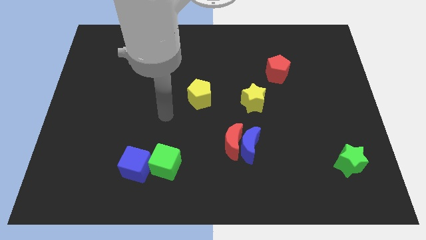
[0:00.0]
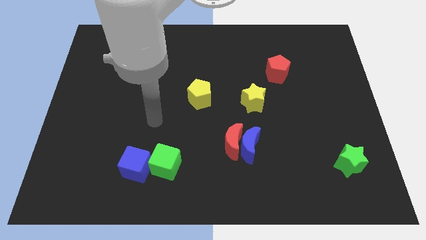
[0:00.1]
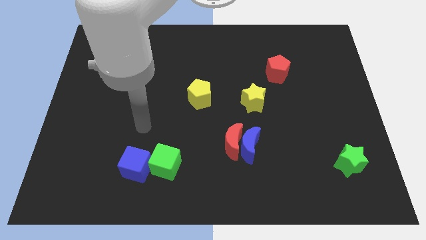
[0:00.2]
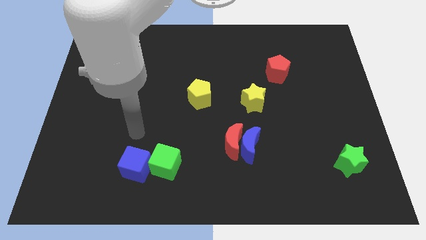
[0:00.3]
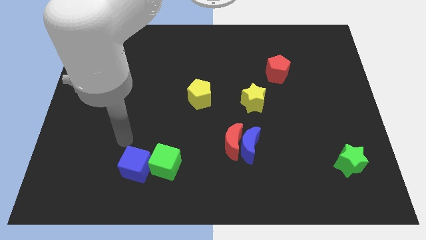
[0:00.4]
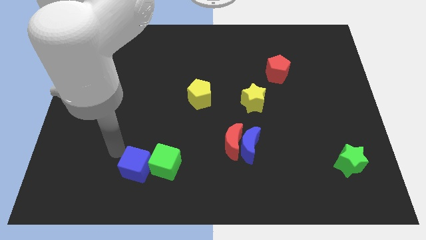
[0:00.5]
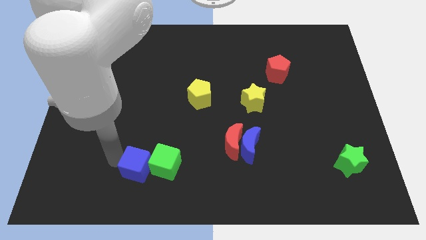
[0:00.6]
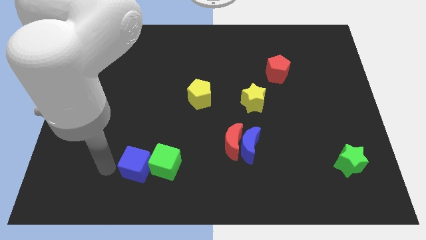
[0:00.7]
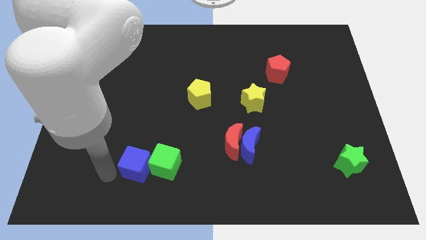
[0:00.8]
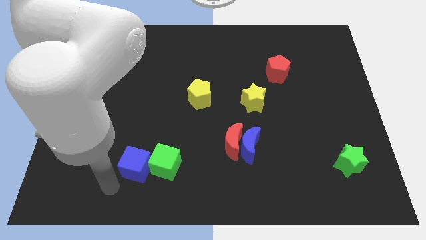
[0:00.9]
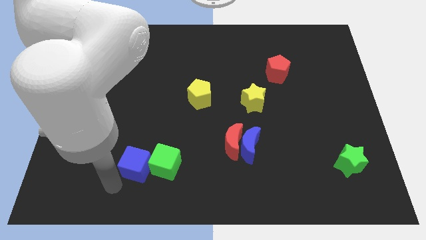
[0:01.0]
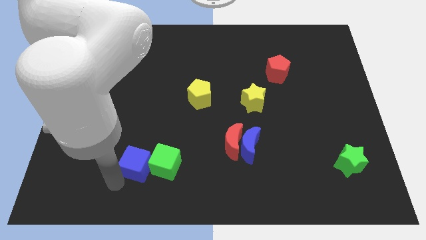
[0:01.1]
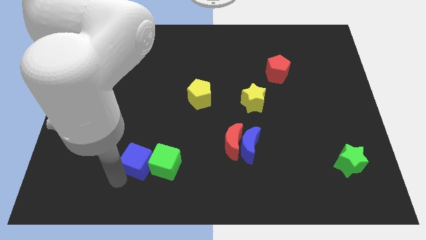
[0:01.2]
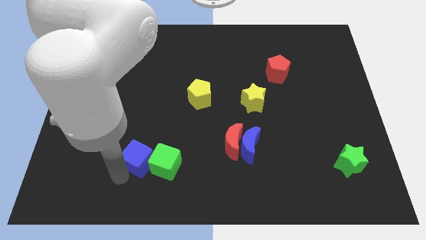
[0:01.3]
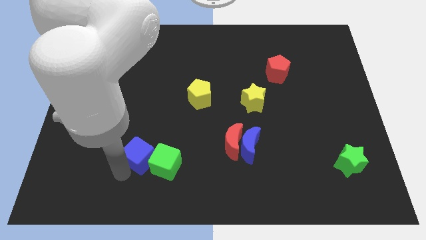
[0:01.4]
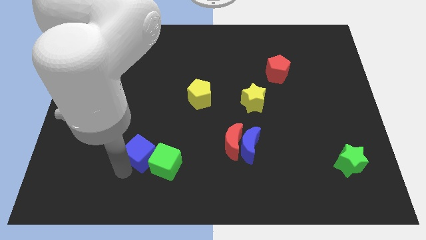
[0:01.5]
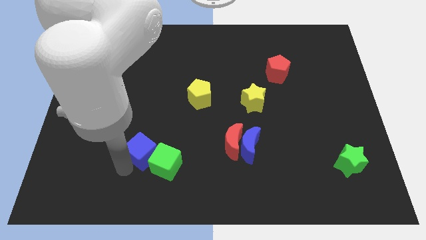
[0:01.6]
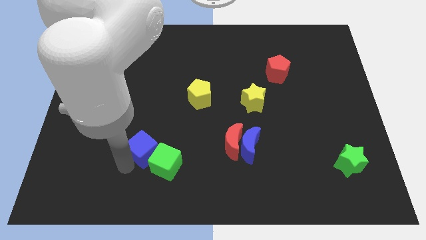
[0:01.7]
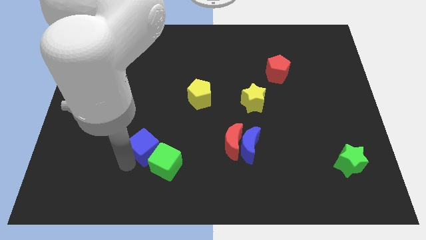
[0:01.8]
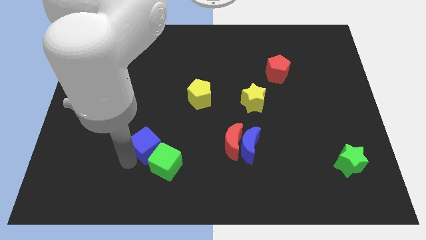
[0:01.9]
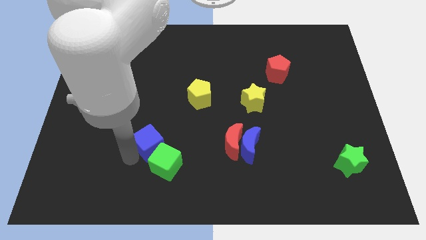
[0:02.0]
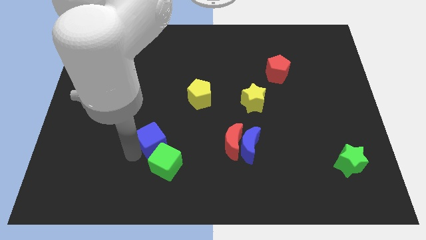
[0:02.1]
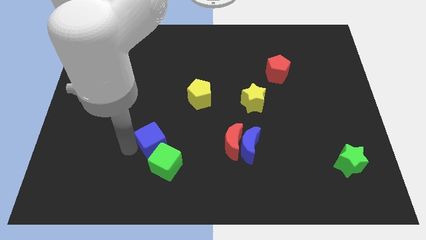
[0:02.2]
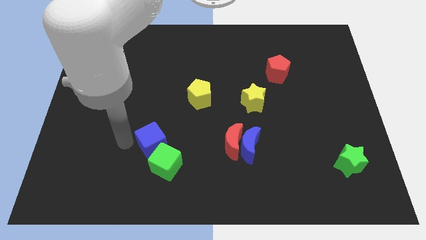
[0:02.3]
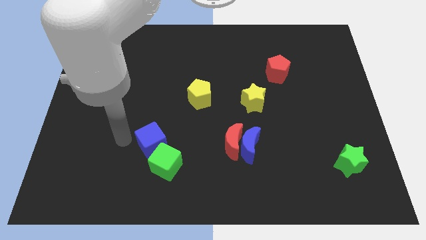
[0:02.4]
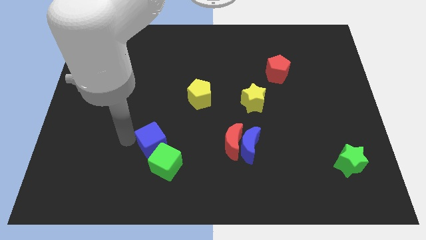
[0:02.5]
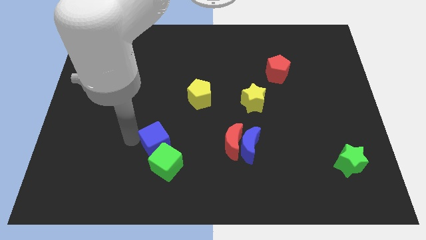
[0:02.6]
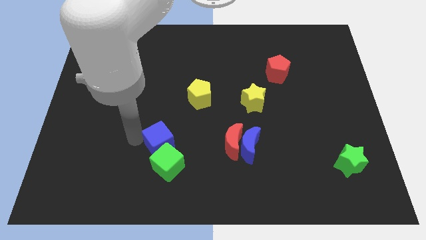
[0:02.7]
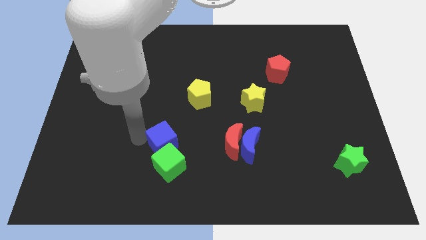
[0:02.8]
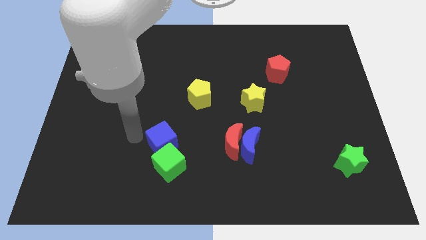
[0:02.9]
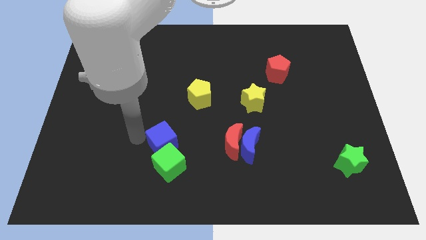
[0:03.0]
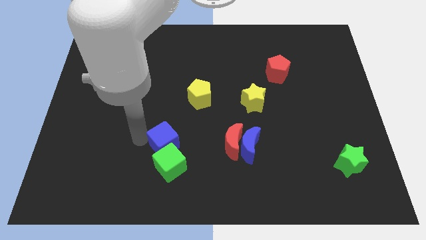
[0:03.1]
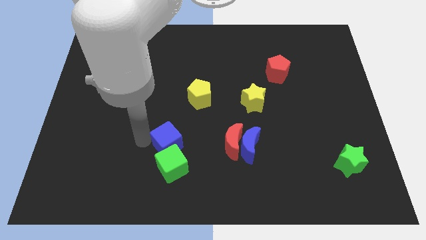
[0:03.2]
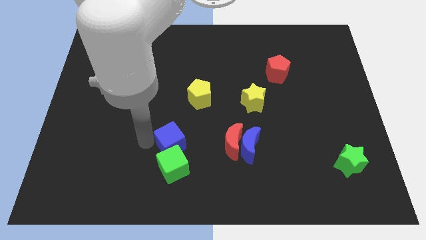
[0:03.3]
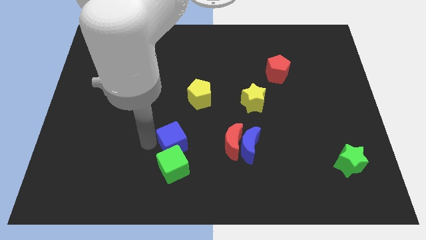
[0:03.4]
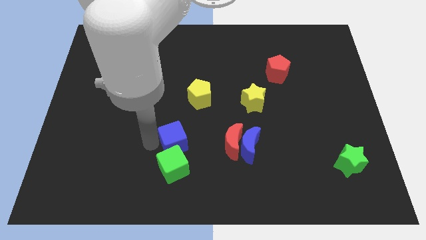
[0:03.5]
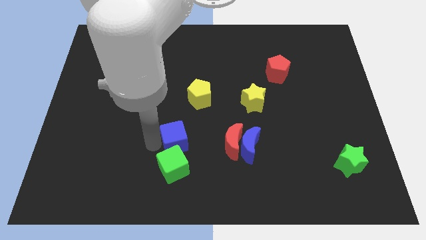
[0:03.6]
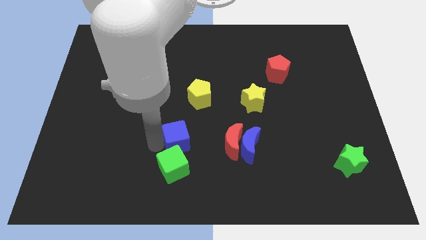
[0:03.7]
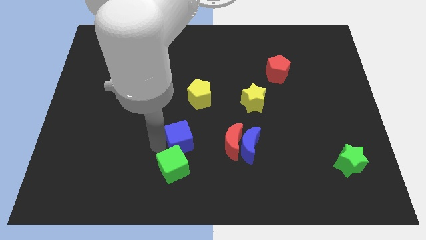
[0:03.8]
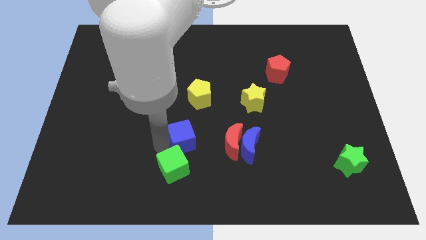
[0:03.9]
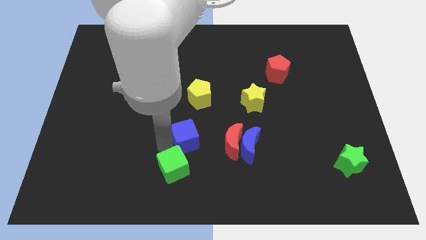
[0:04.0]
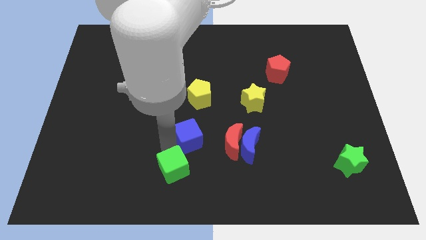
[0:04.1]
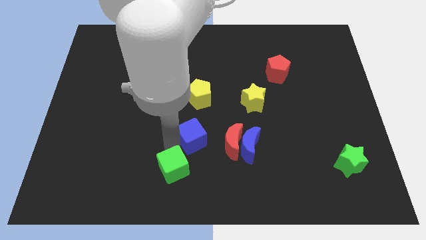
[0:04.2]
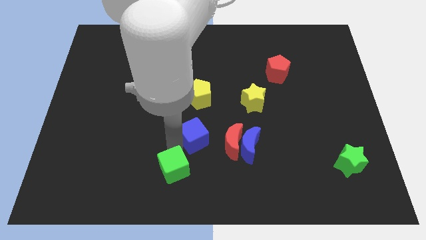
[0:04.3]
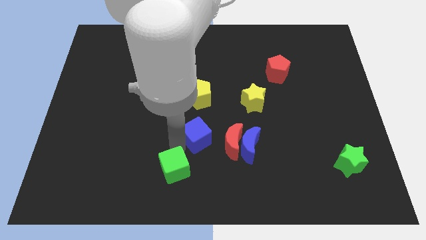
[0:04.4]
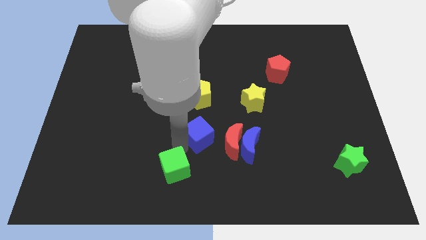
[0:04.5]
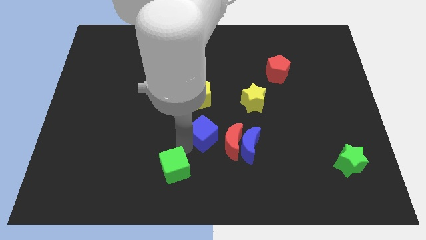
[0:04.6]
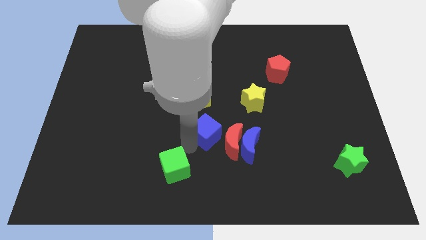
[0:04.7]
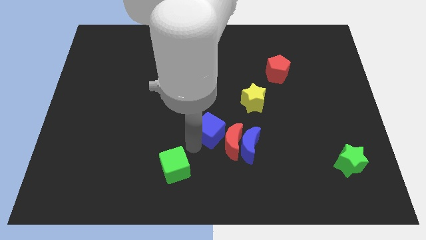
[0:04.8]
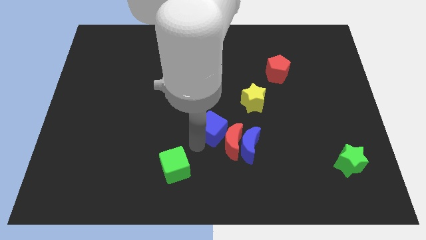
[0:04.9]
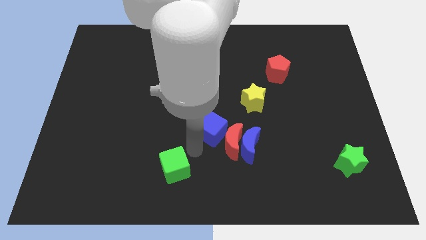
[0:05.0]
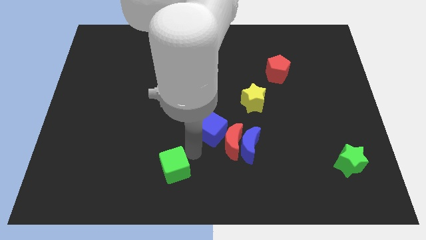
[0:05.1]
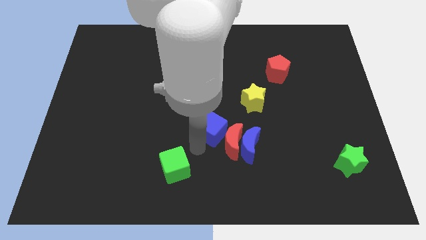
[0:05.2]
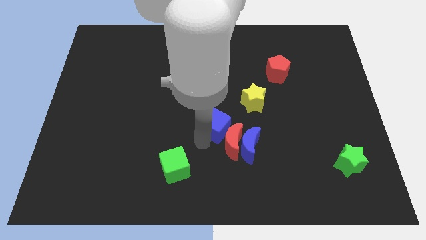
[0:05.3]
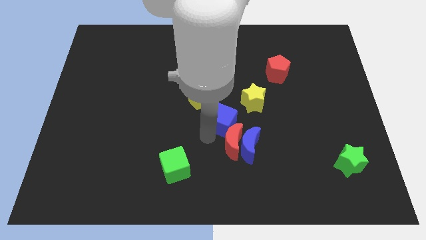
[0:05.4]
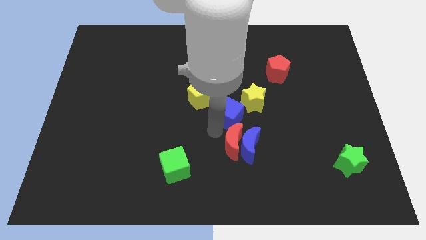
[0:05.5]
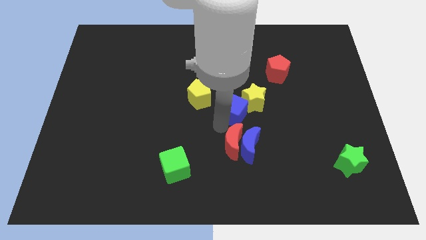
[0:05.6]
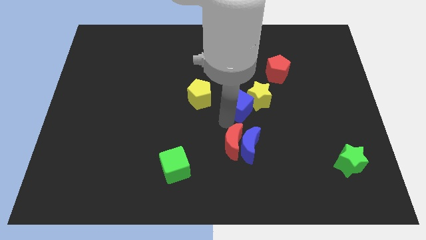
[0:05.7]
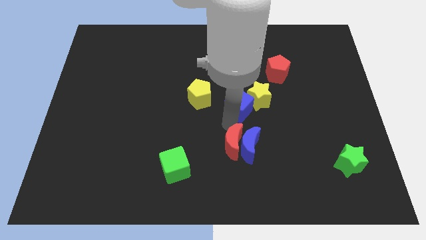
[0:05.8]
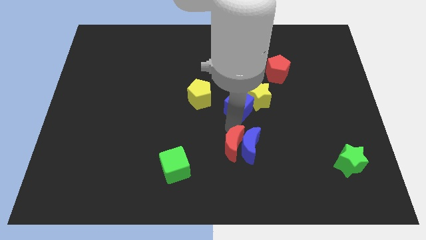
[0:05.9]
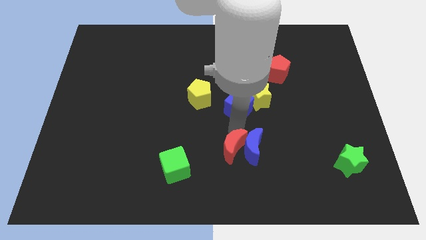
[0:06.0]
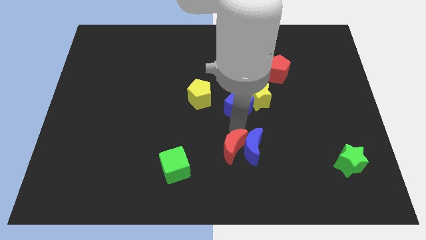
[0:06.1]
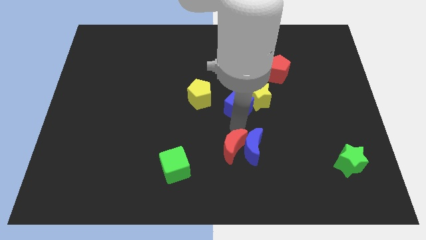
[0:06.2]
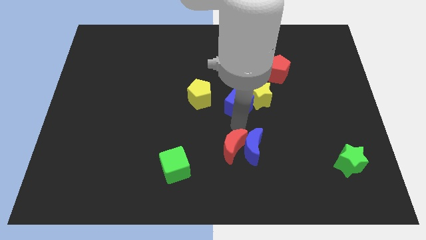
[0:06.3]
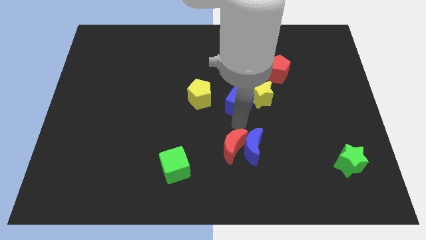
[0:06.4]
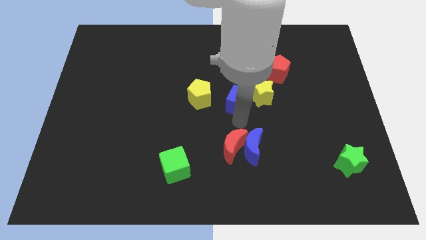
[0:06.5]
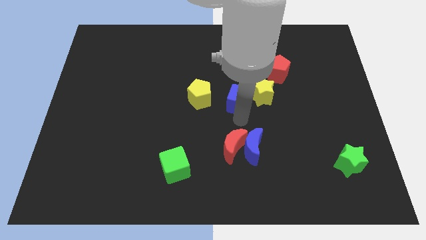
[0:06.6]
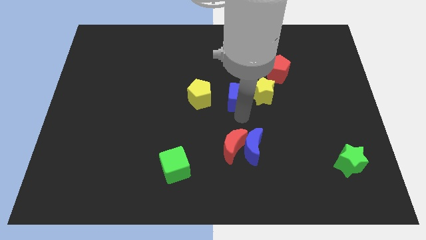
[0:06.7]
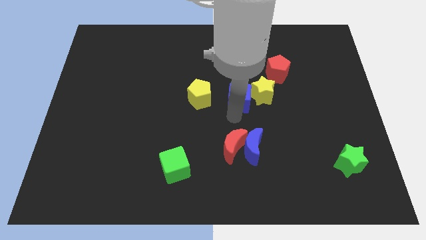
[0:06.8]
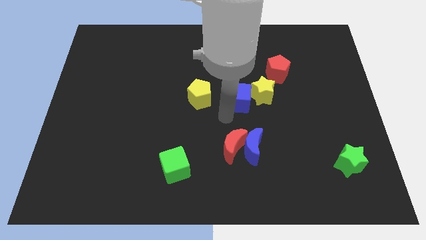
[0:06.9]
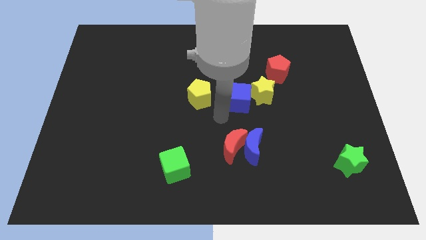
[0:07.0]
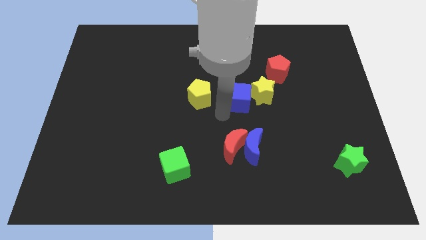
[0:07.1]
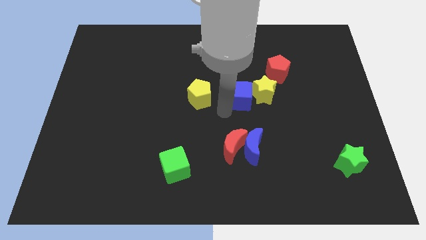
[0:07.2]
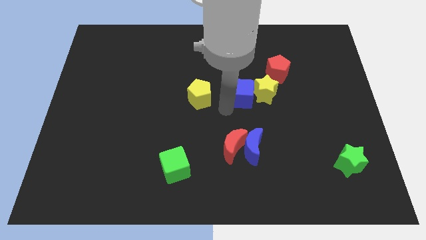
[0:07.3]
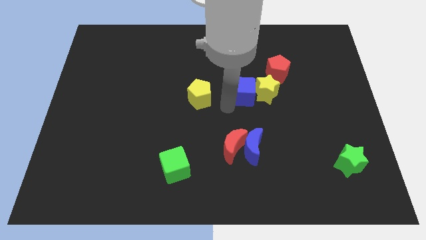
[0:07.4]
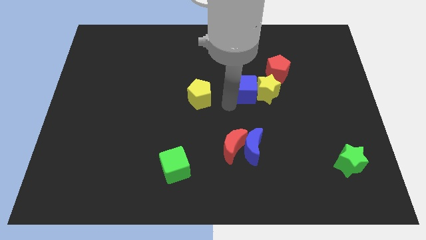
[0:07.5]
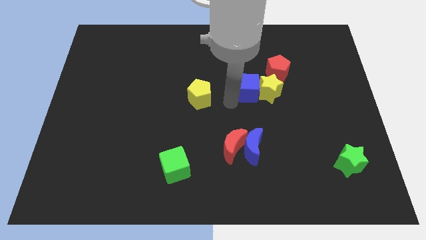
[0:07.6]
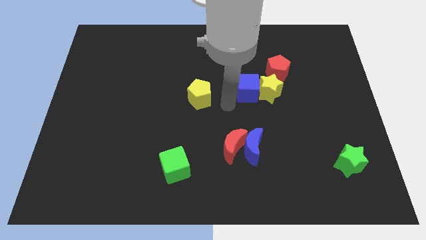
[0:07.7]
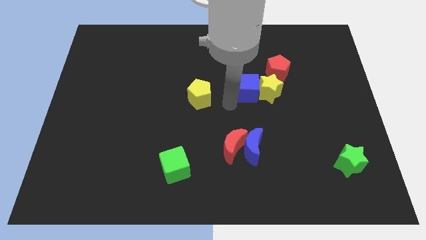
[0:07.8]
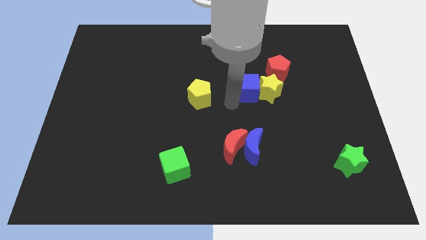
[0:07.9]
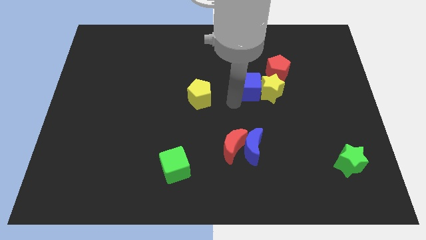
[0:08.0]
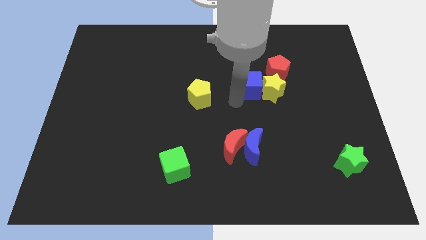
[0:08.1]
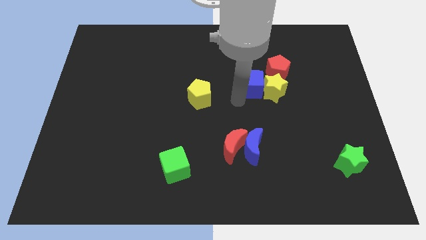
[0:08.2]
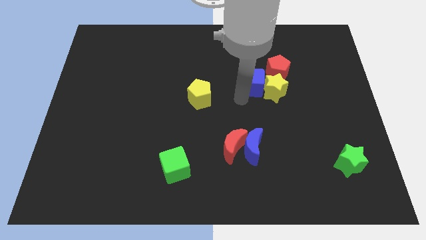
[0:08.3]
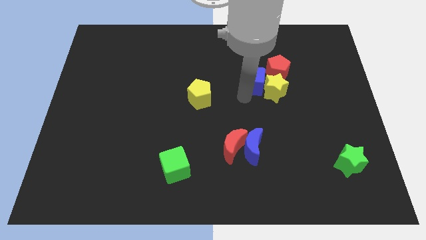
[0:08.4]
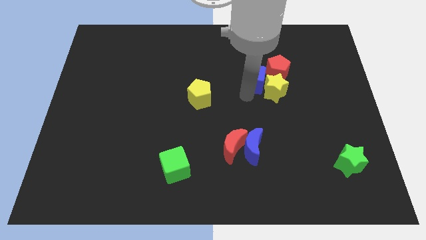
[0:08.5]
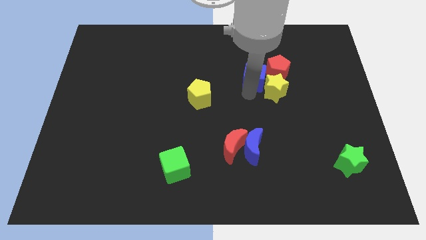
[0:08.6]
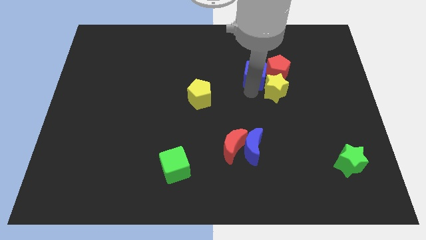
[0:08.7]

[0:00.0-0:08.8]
move the blue cube next to the red pentagon
